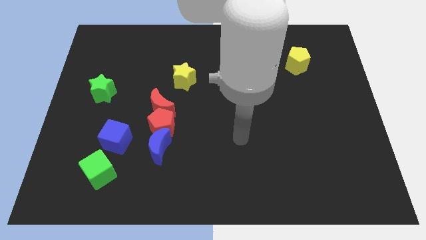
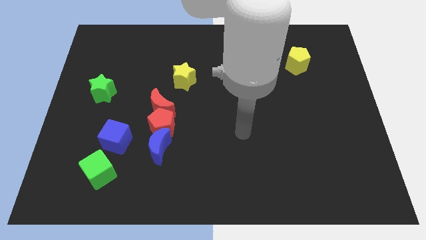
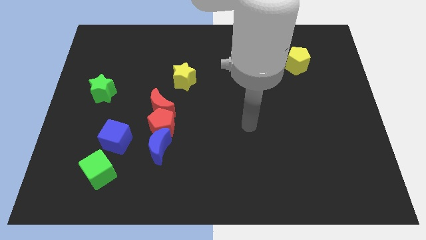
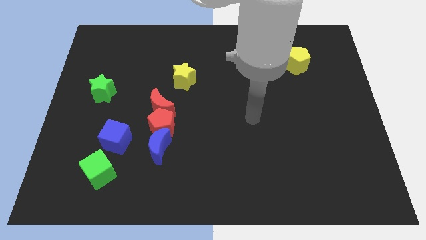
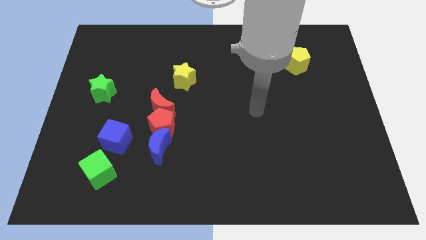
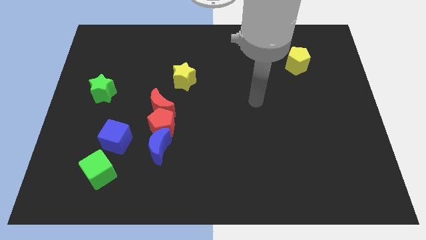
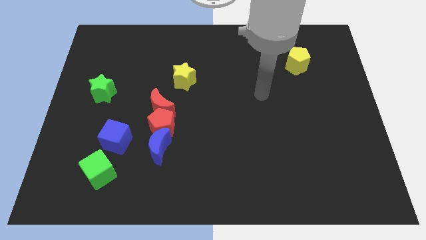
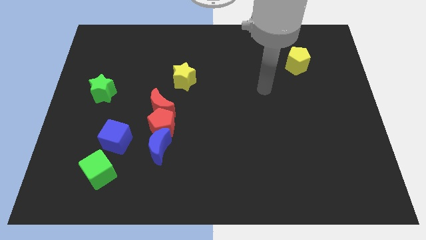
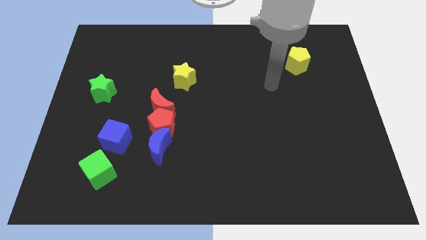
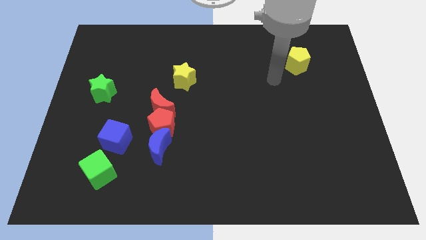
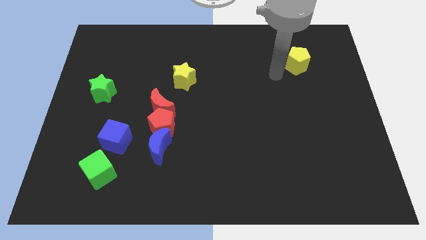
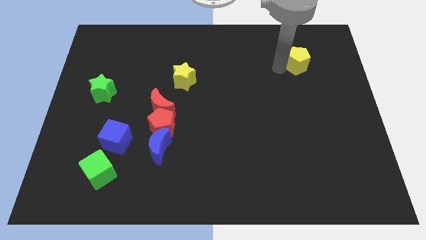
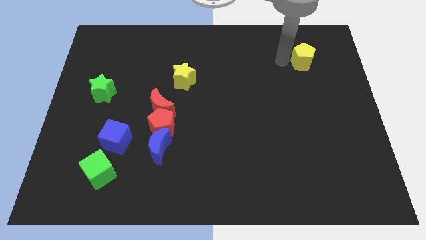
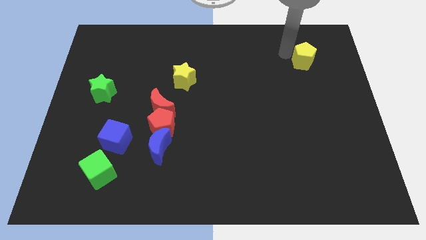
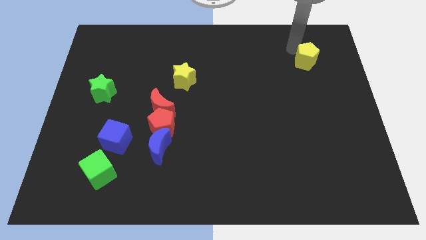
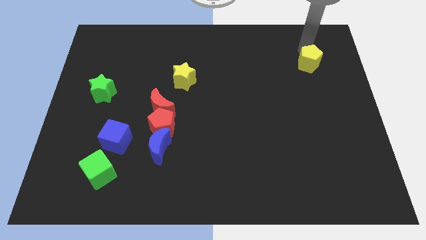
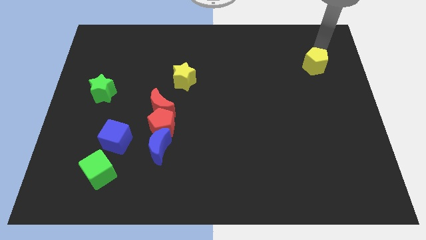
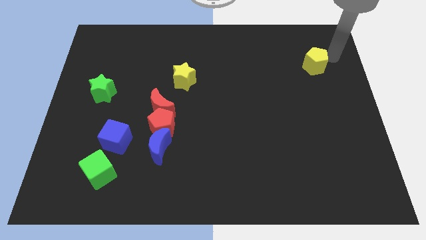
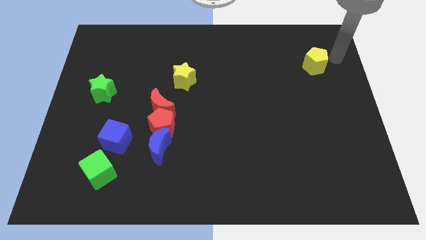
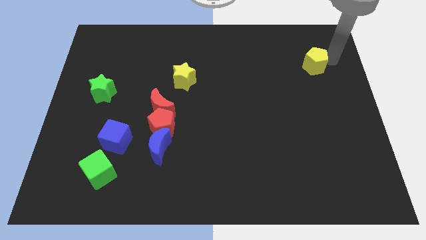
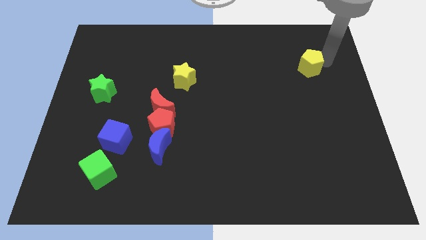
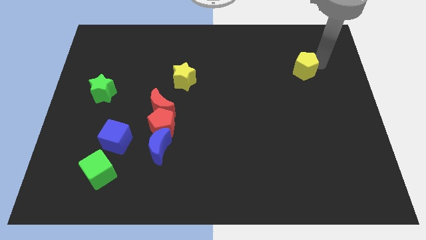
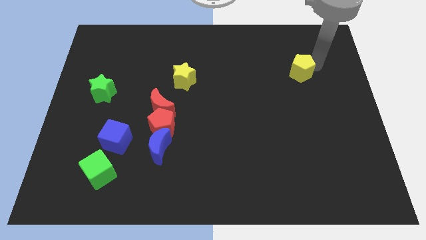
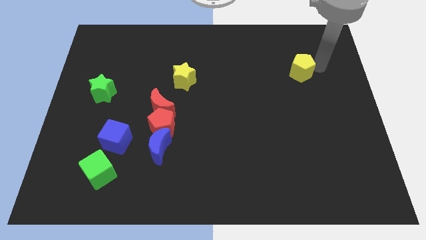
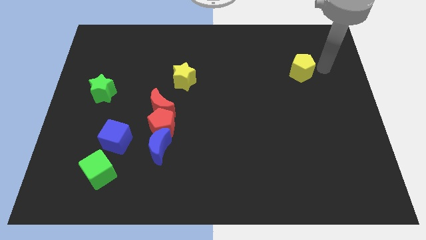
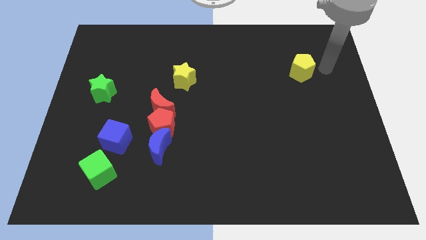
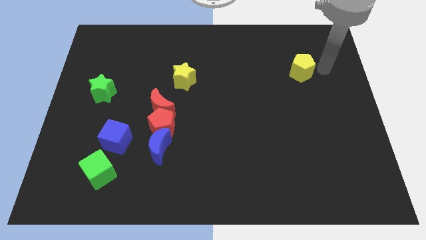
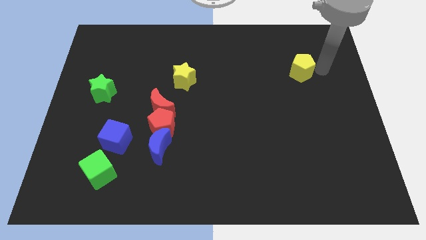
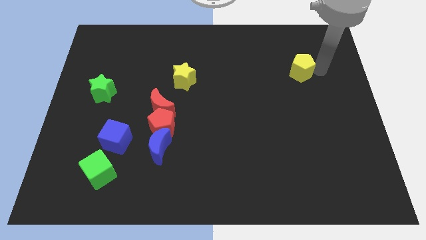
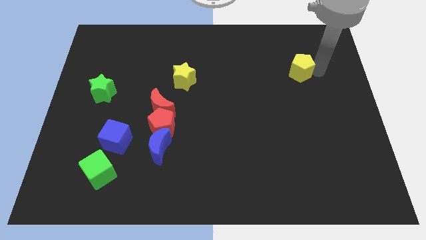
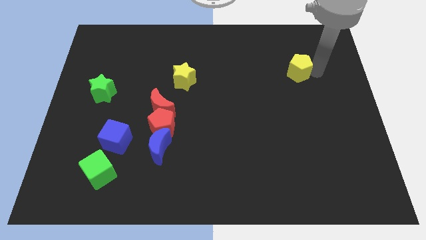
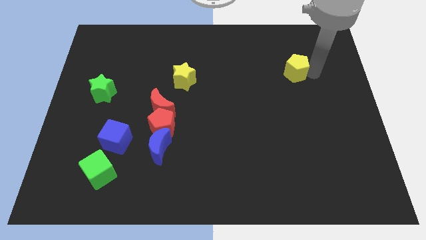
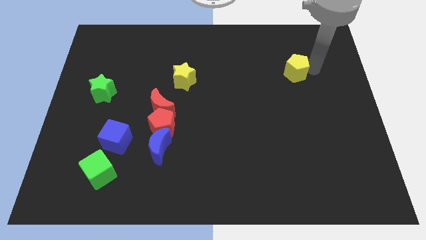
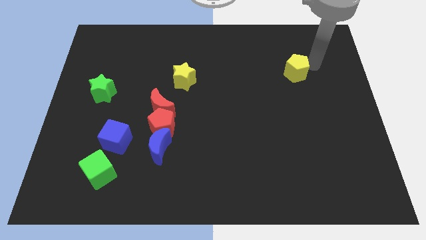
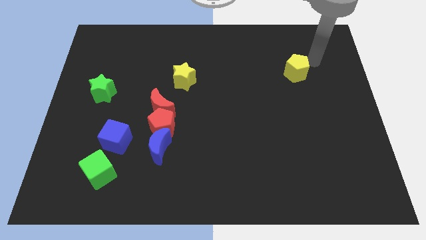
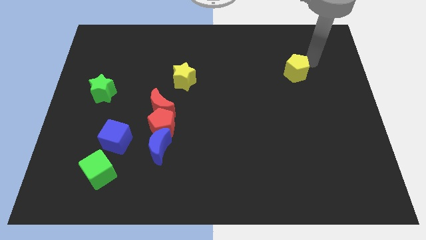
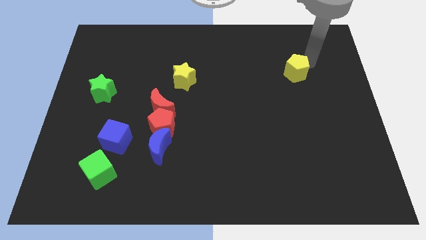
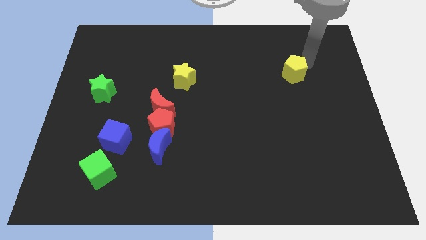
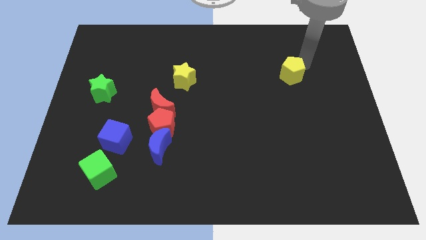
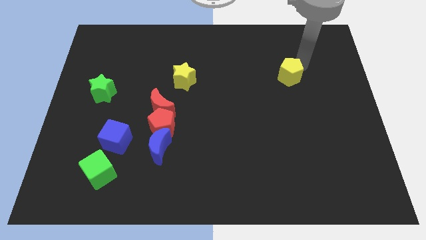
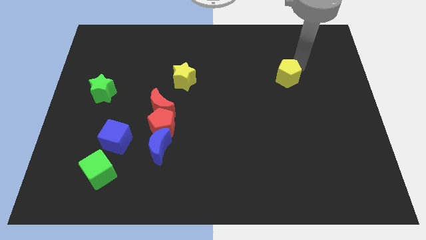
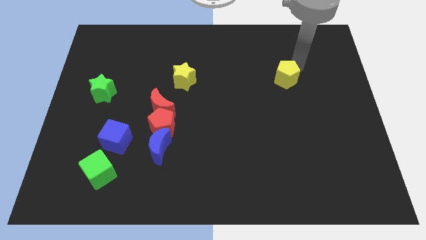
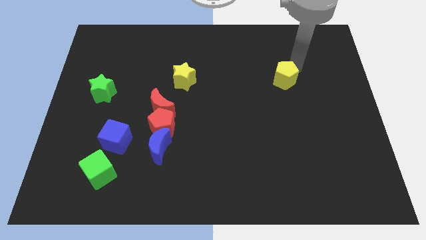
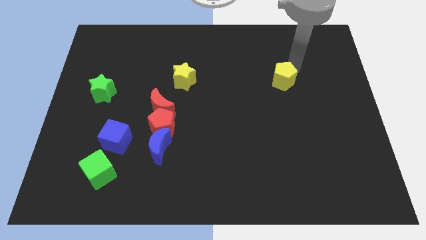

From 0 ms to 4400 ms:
slightly push the yellow pentagon diagonally down and to the left

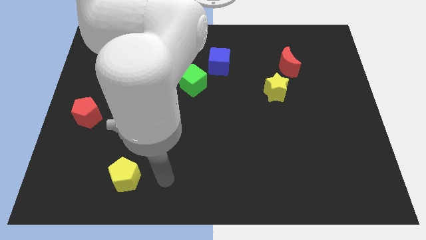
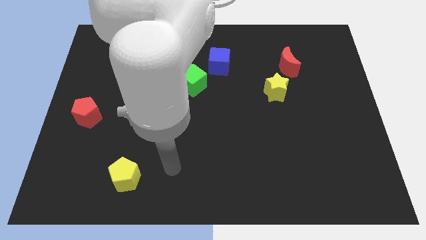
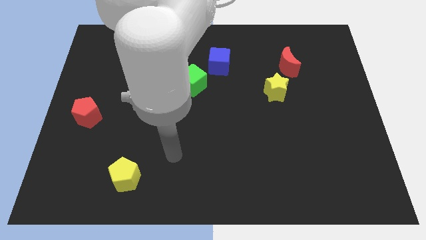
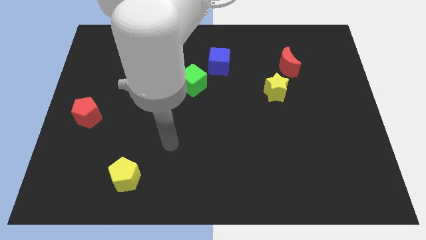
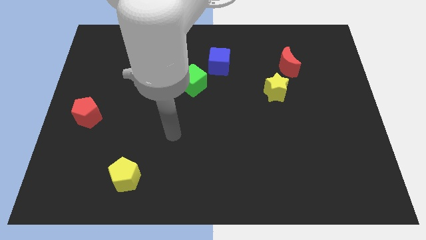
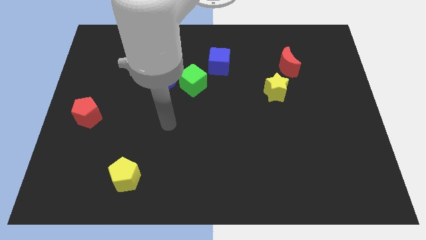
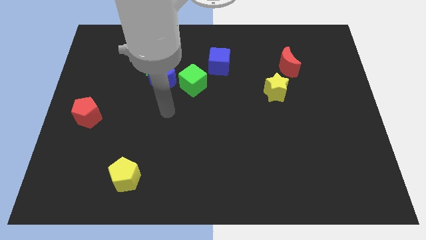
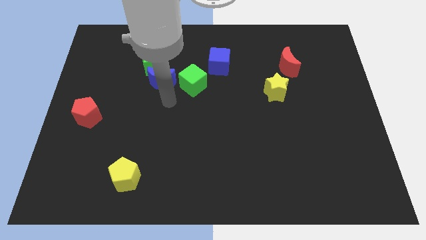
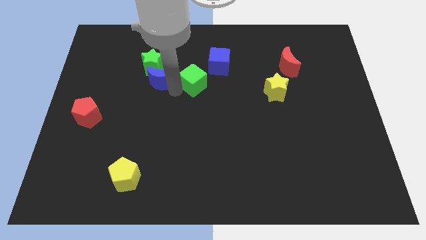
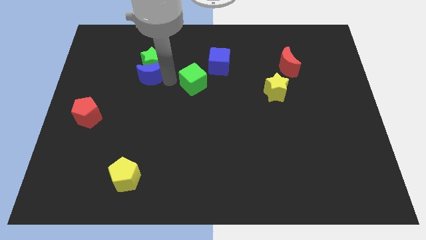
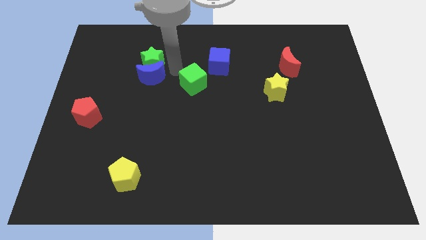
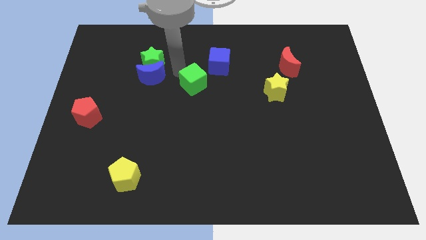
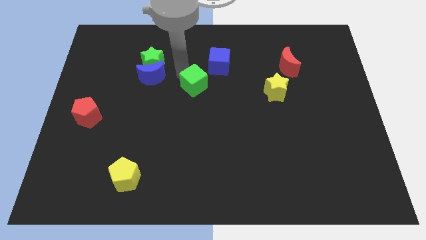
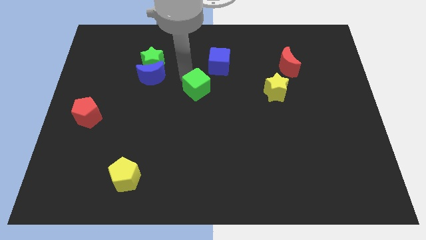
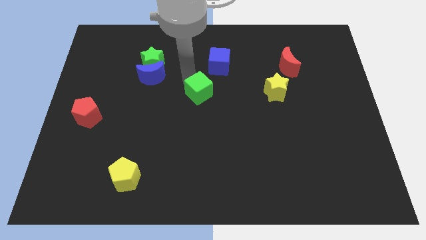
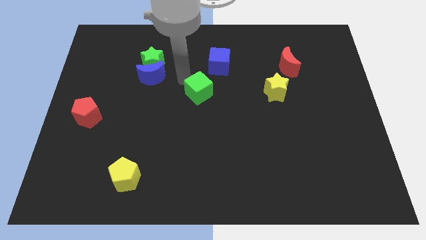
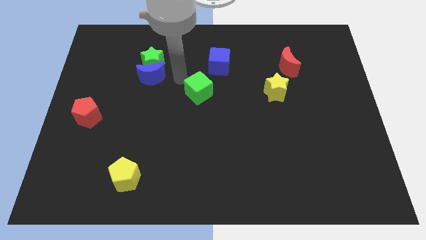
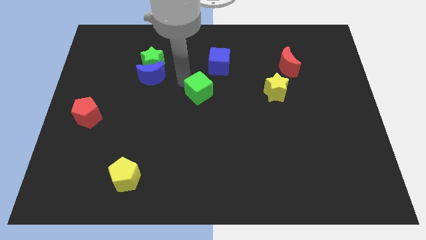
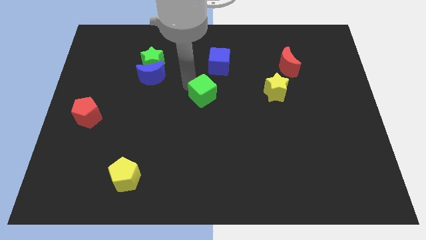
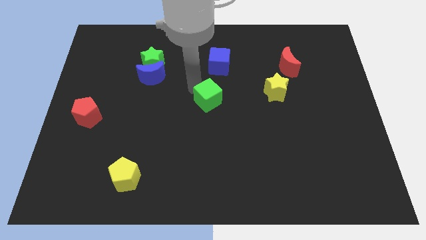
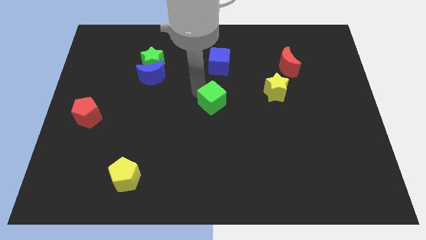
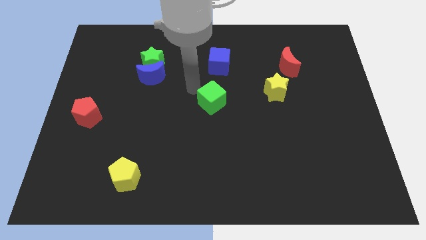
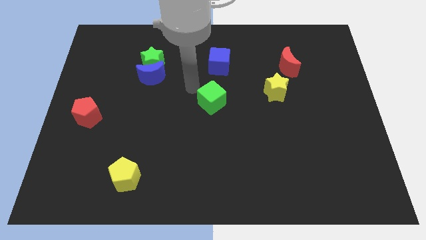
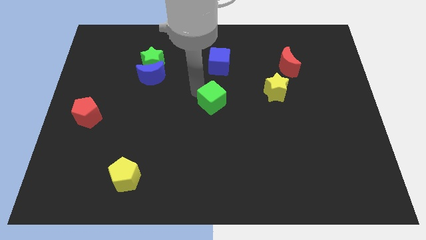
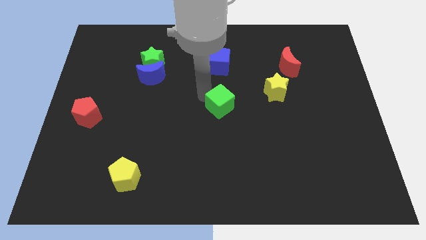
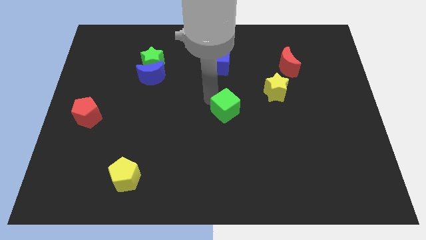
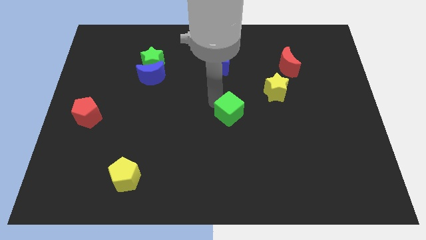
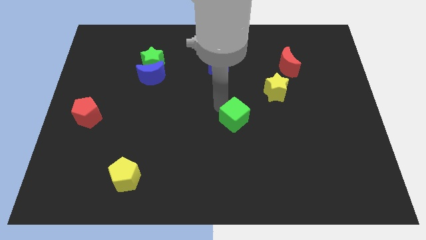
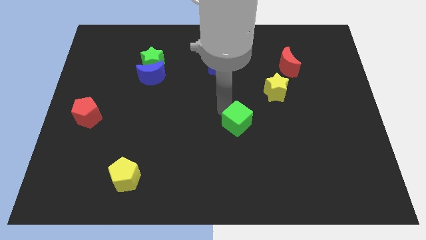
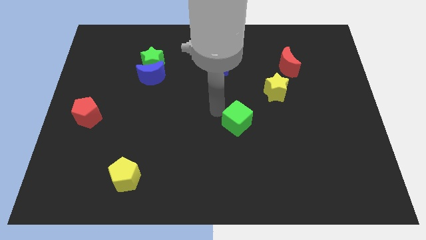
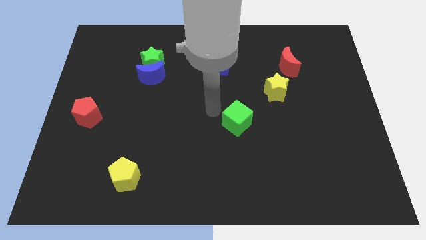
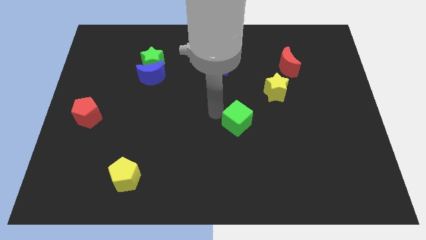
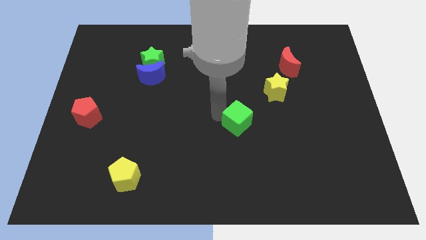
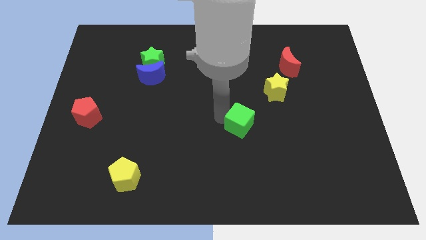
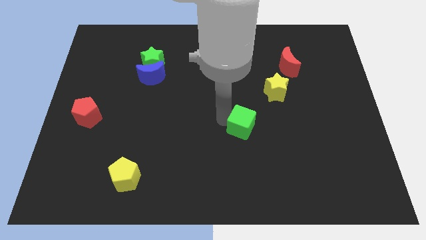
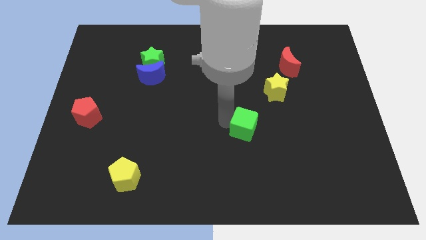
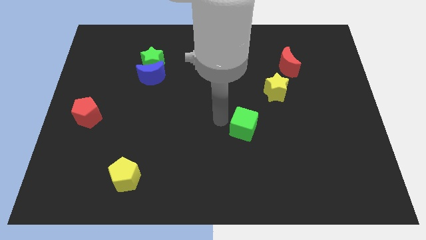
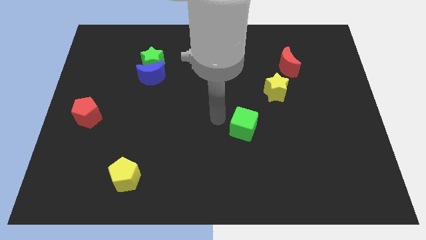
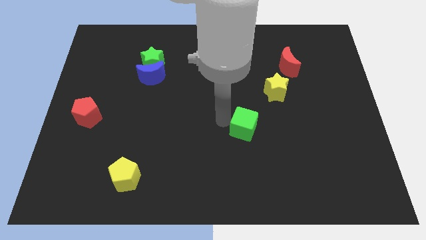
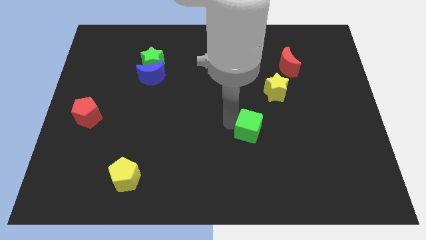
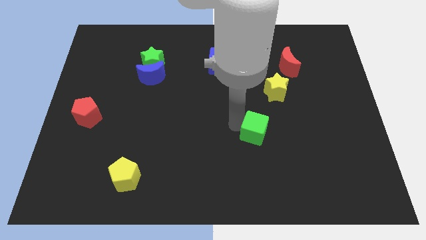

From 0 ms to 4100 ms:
slide the green cube downwards and then right
